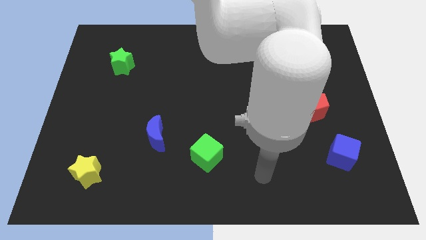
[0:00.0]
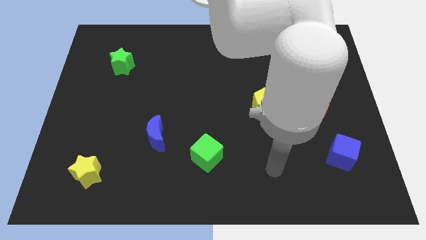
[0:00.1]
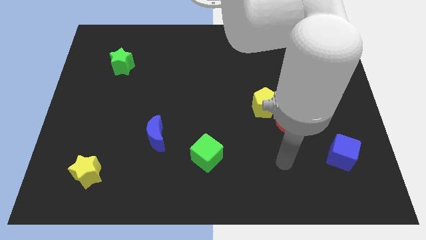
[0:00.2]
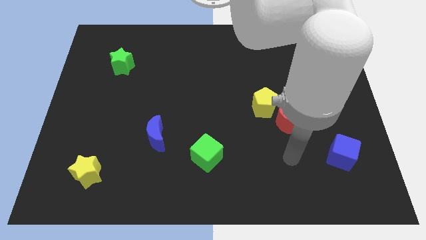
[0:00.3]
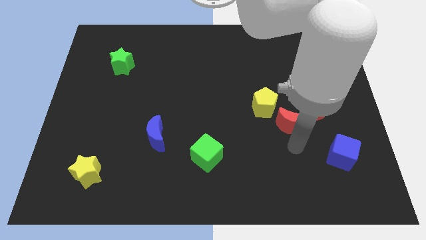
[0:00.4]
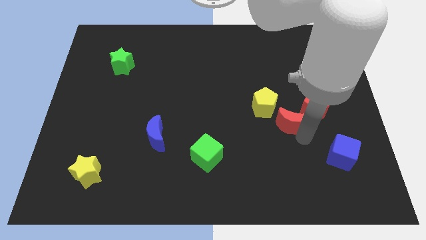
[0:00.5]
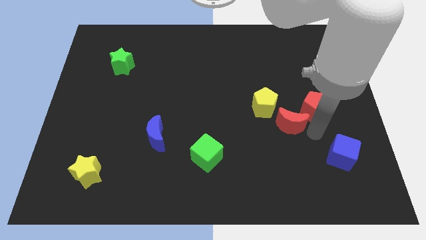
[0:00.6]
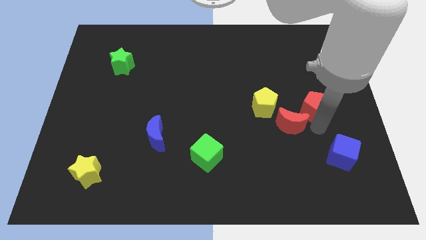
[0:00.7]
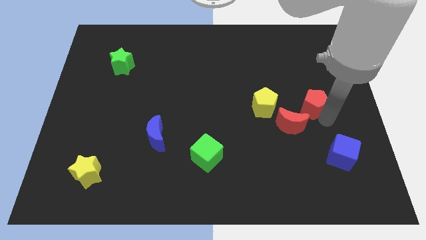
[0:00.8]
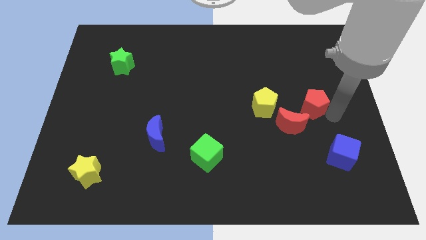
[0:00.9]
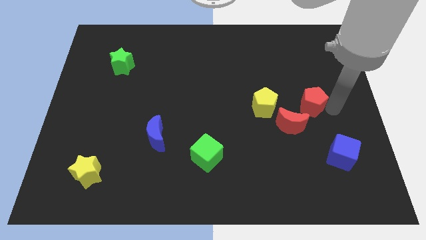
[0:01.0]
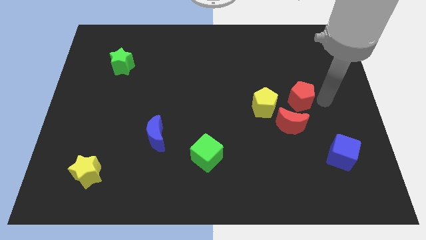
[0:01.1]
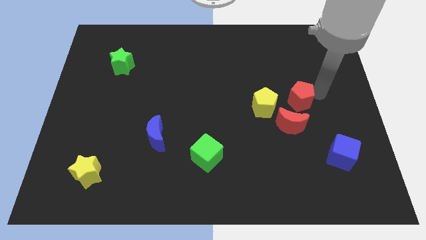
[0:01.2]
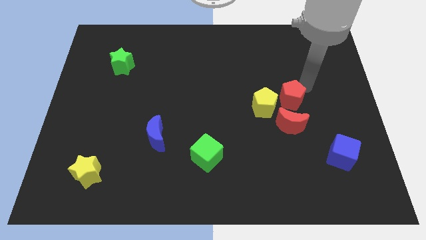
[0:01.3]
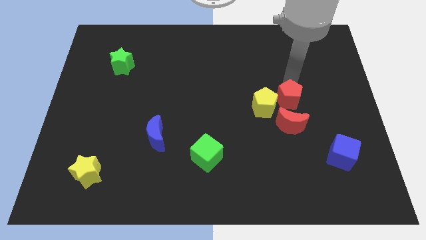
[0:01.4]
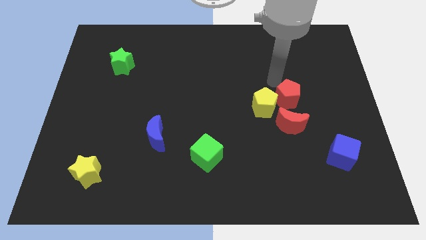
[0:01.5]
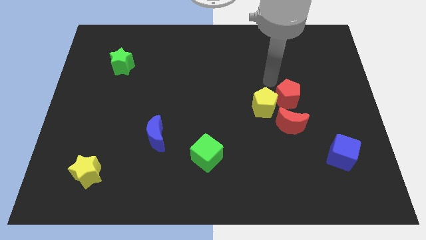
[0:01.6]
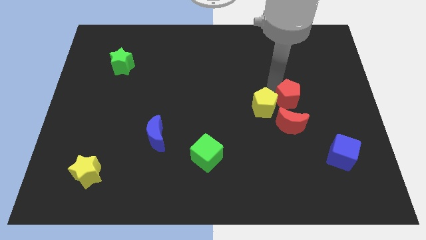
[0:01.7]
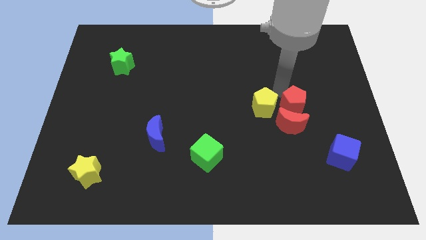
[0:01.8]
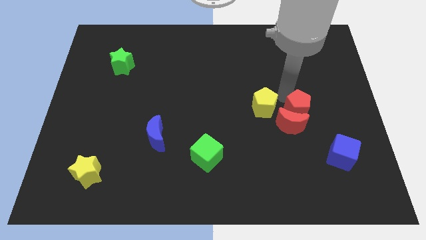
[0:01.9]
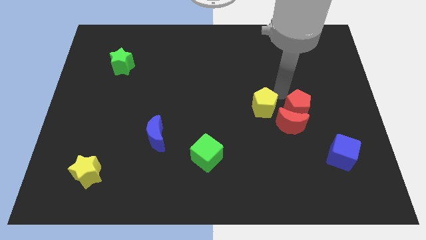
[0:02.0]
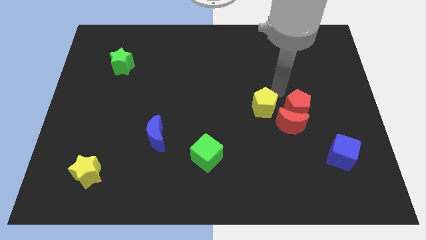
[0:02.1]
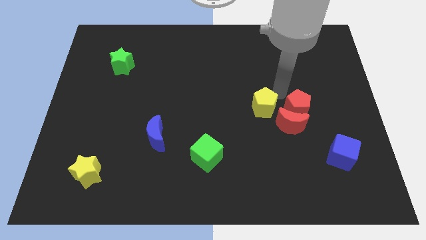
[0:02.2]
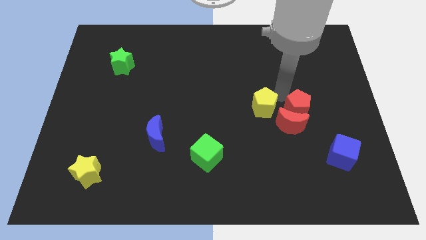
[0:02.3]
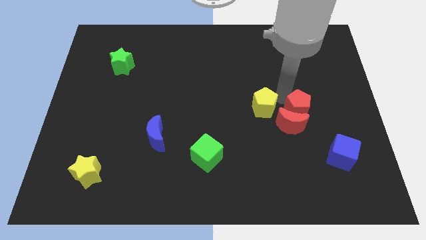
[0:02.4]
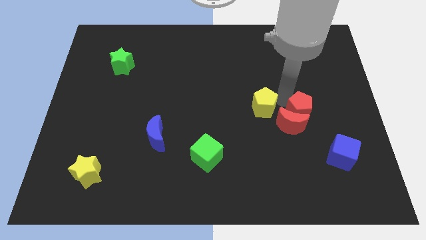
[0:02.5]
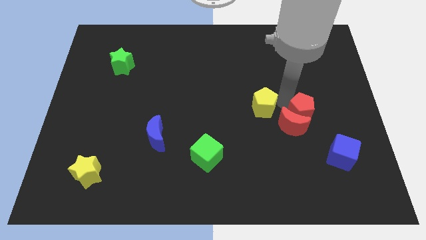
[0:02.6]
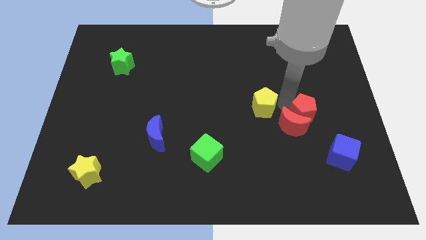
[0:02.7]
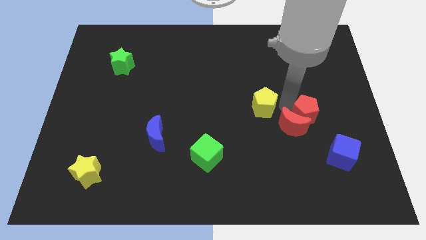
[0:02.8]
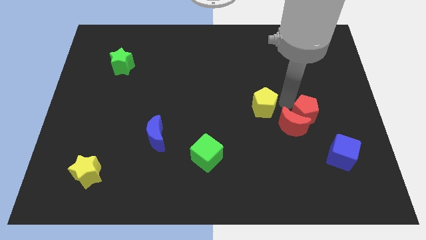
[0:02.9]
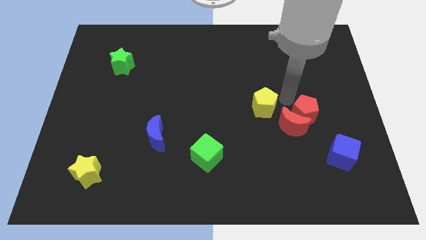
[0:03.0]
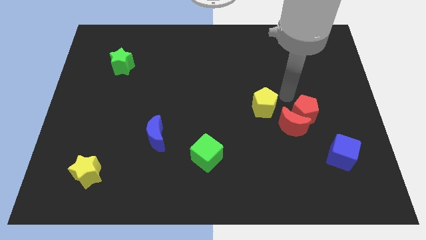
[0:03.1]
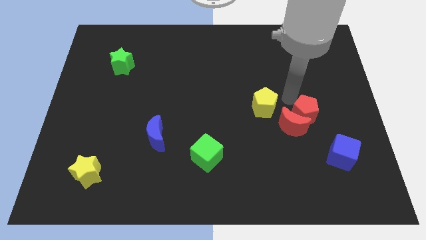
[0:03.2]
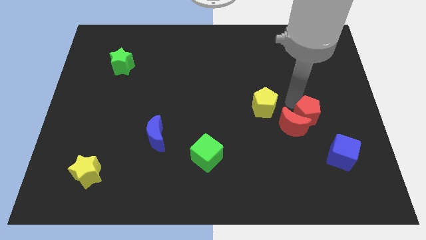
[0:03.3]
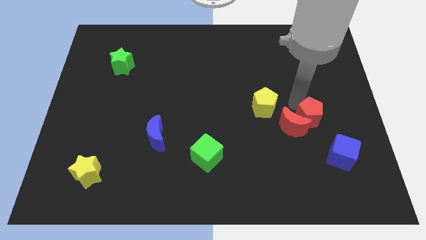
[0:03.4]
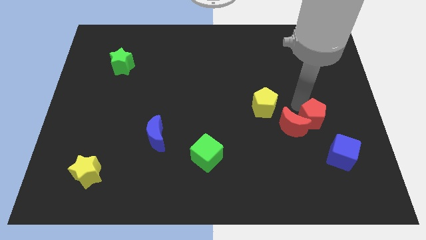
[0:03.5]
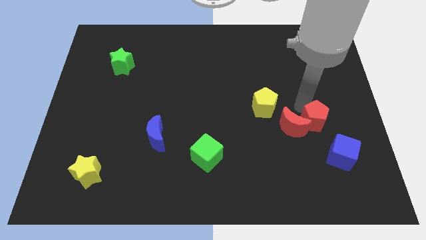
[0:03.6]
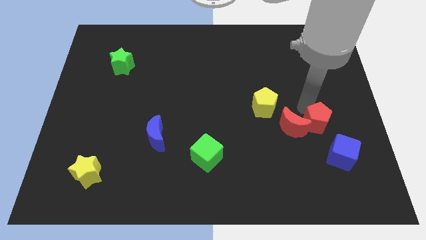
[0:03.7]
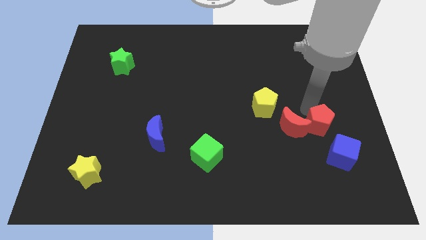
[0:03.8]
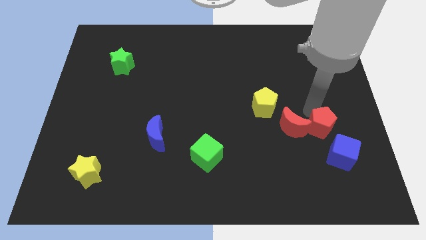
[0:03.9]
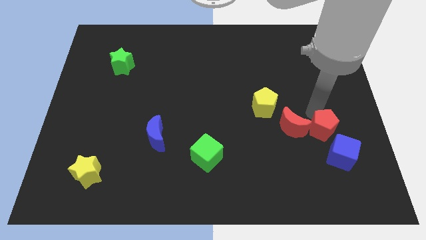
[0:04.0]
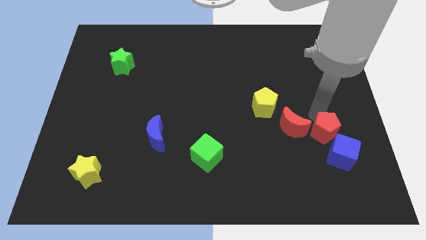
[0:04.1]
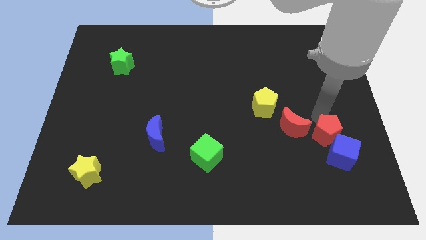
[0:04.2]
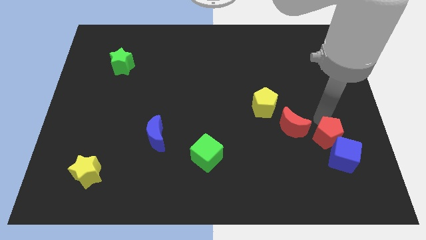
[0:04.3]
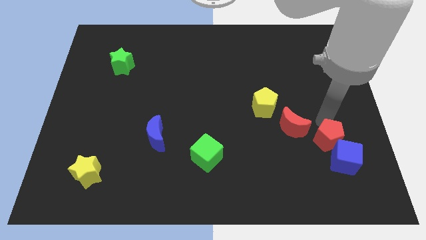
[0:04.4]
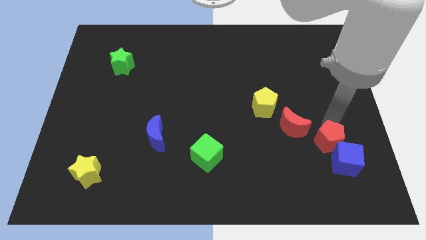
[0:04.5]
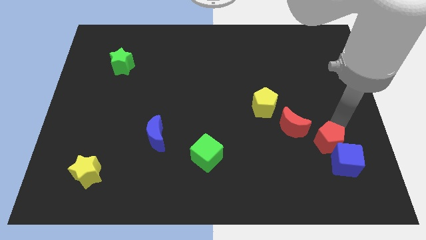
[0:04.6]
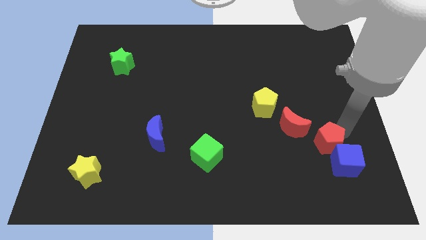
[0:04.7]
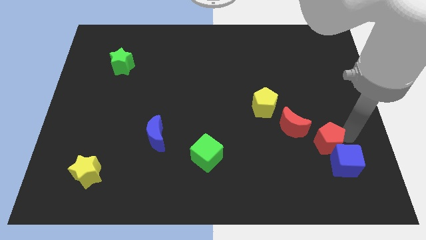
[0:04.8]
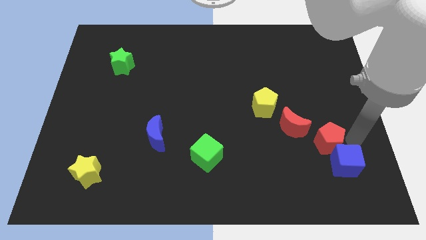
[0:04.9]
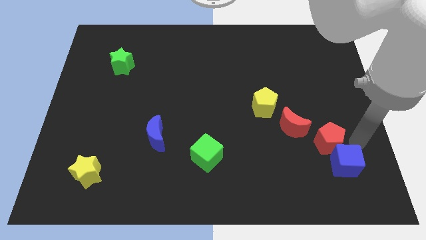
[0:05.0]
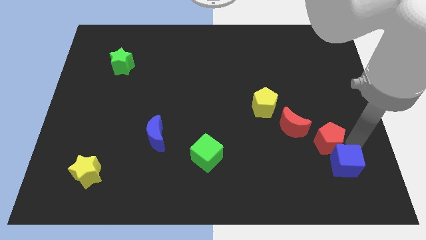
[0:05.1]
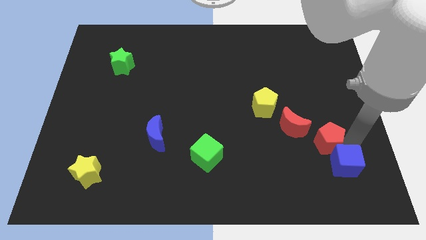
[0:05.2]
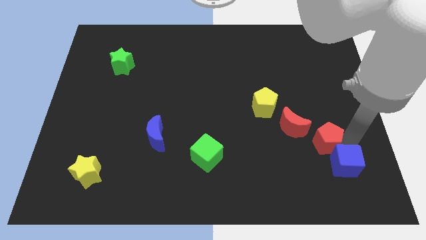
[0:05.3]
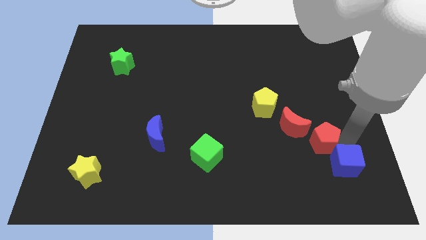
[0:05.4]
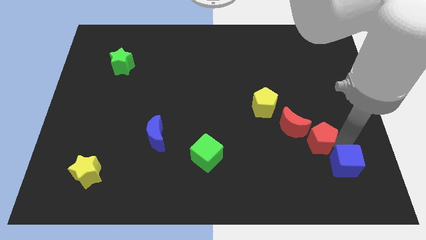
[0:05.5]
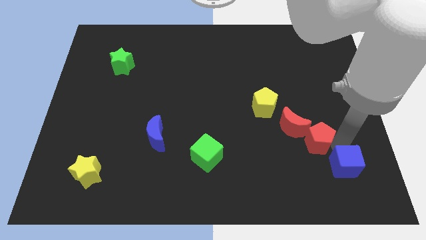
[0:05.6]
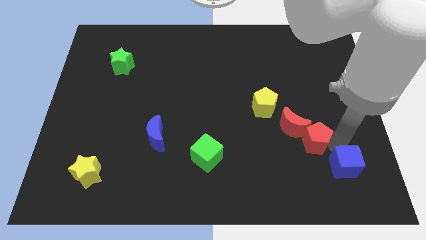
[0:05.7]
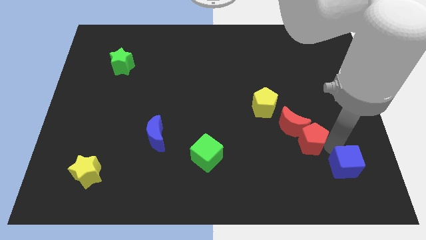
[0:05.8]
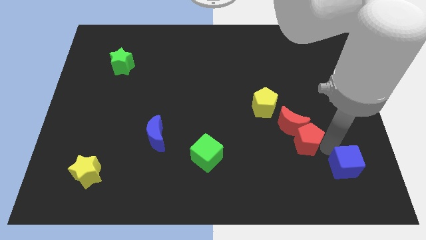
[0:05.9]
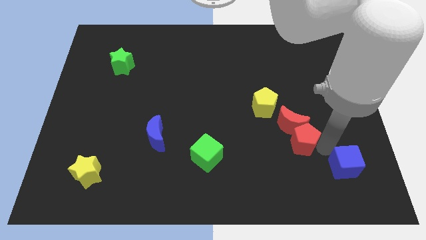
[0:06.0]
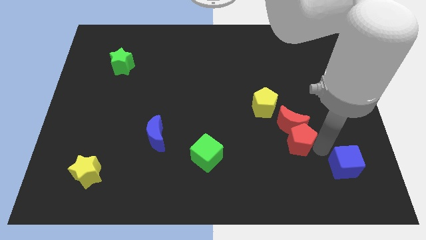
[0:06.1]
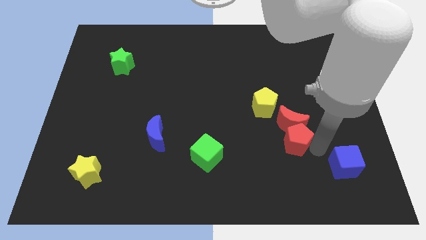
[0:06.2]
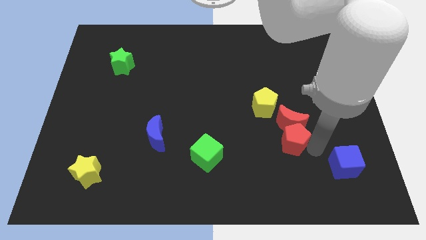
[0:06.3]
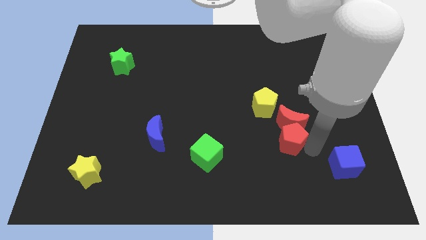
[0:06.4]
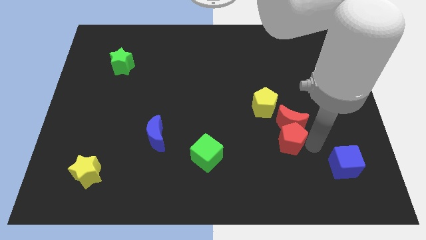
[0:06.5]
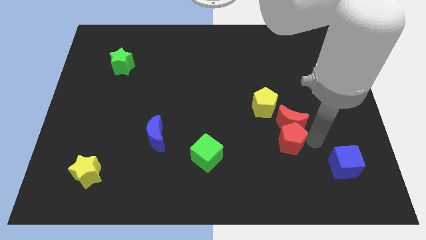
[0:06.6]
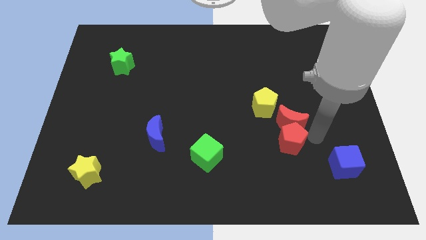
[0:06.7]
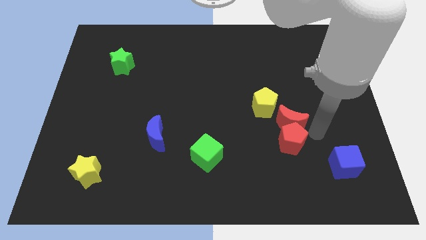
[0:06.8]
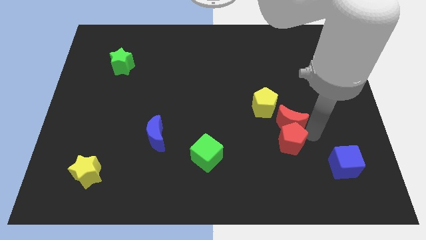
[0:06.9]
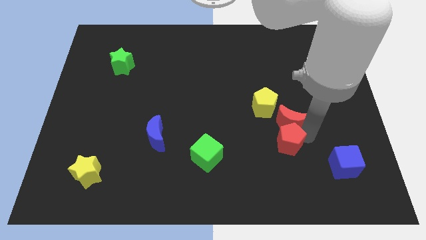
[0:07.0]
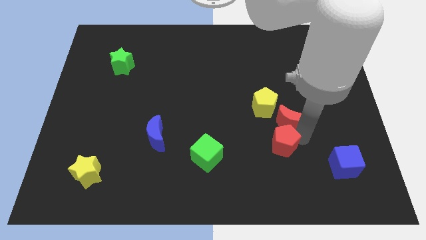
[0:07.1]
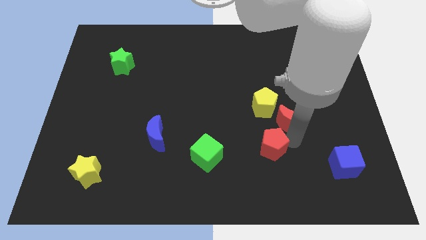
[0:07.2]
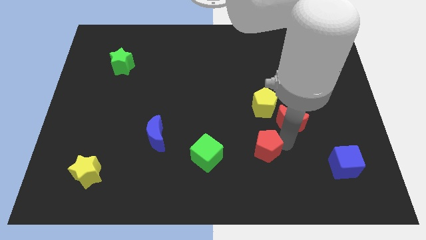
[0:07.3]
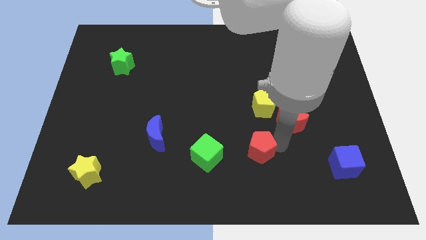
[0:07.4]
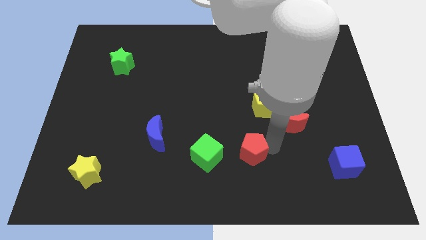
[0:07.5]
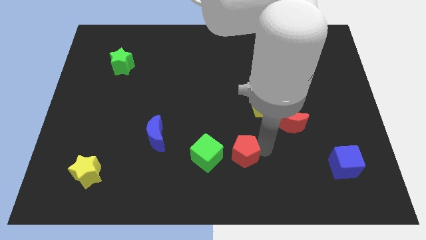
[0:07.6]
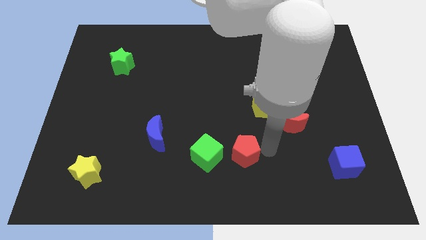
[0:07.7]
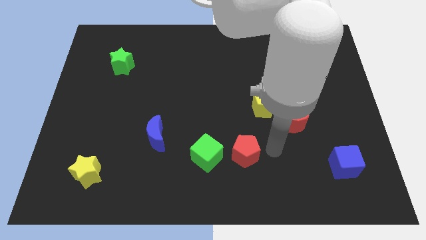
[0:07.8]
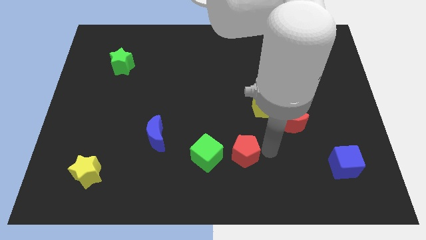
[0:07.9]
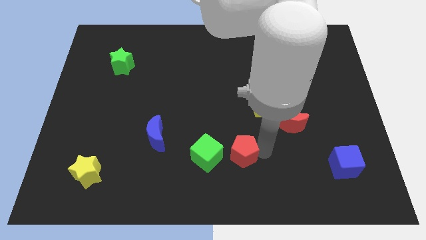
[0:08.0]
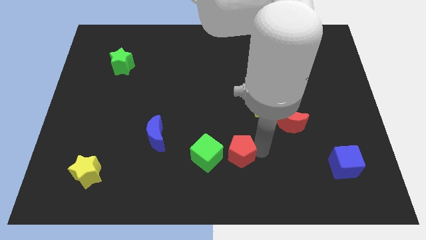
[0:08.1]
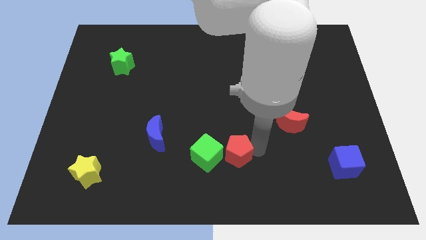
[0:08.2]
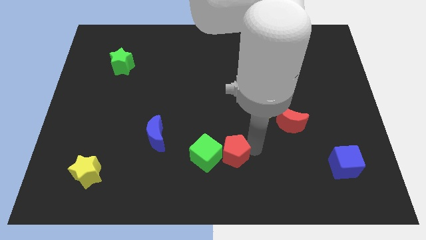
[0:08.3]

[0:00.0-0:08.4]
move the red pentagon close to the green cube
